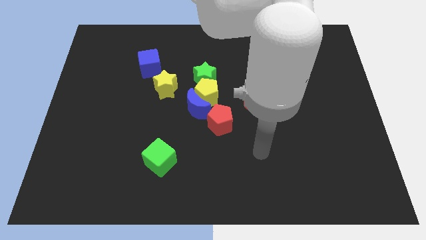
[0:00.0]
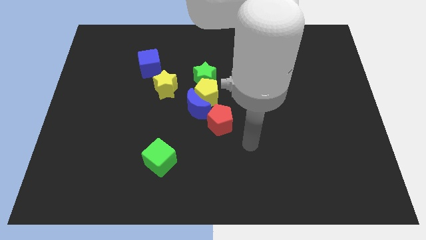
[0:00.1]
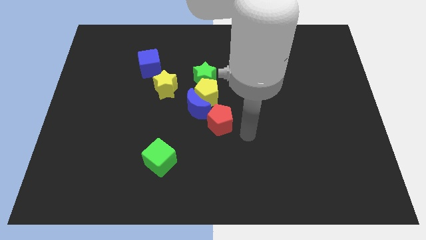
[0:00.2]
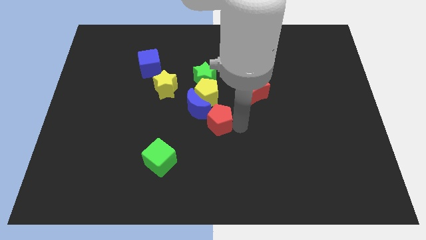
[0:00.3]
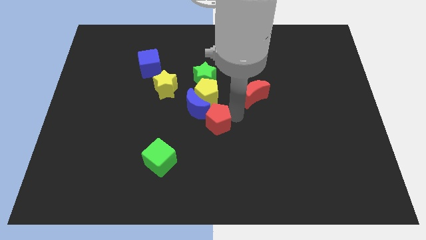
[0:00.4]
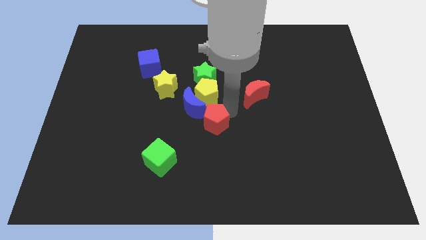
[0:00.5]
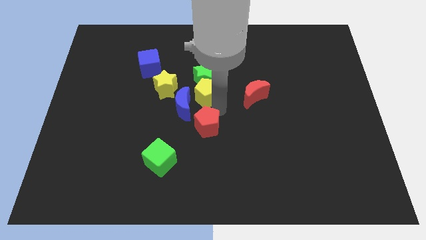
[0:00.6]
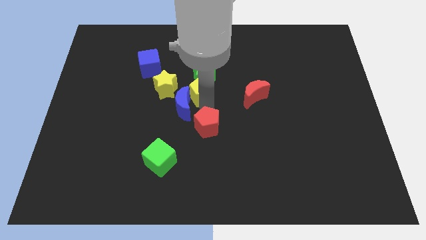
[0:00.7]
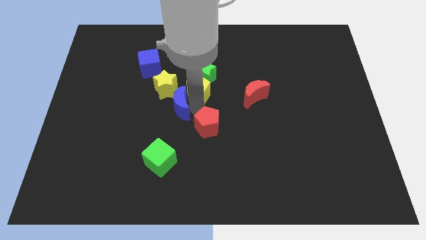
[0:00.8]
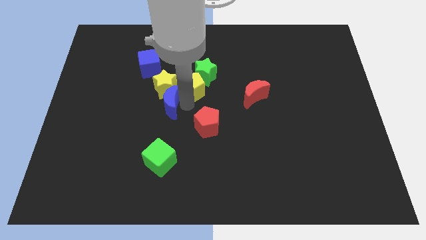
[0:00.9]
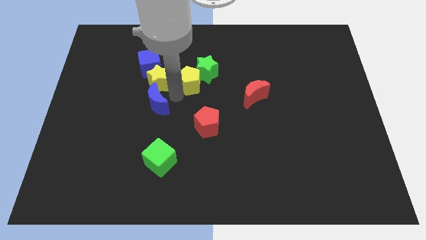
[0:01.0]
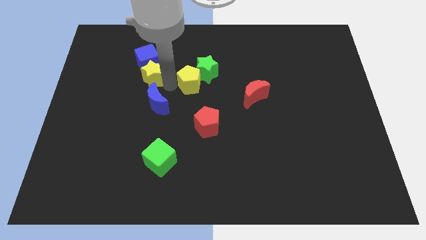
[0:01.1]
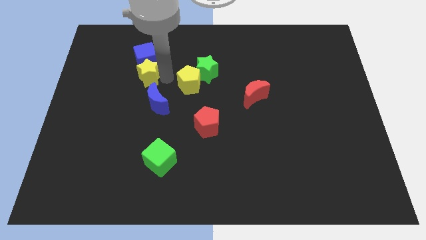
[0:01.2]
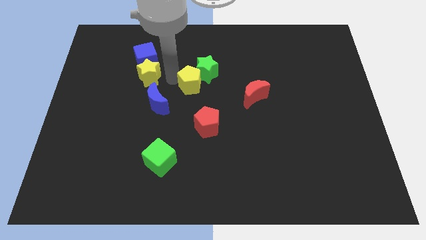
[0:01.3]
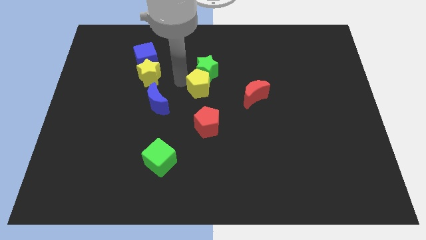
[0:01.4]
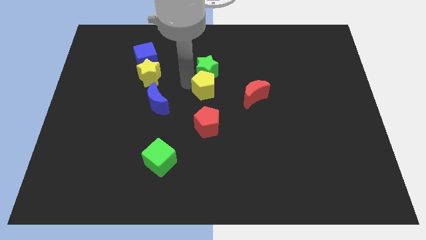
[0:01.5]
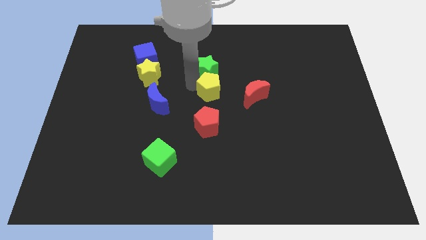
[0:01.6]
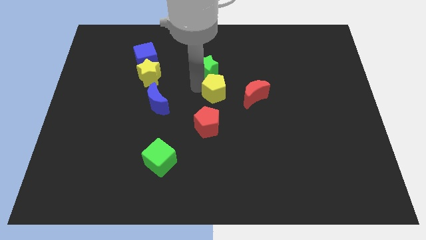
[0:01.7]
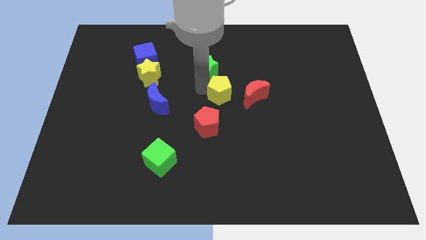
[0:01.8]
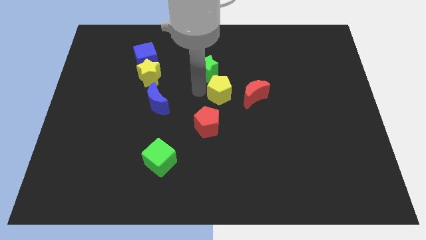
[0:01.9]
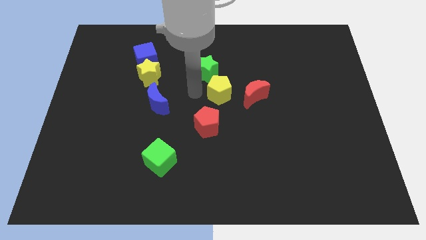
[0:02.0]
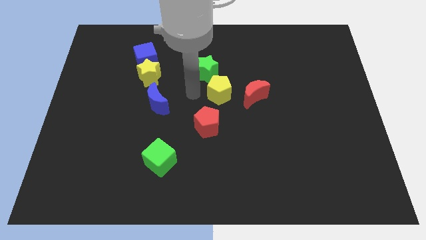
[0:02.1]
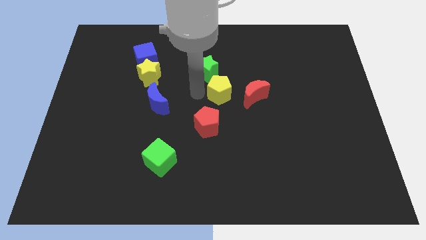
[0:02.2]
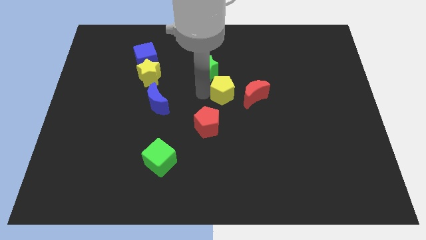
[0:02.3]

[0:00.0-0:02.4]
move the yellow pentagon away from the group of blocks

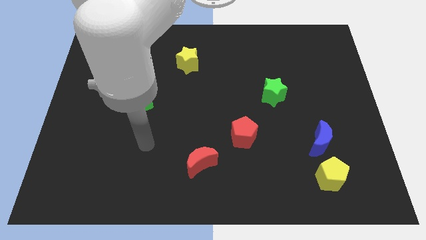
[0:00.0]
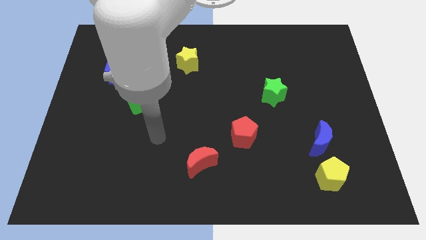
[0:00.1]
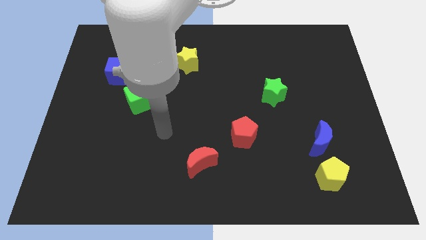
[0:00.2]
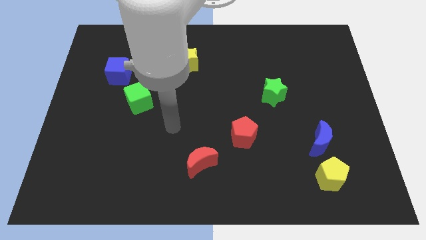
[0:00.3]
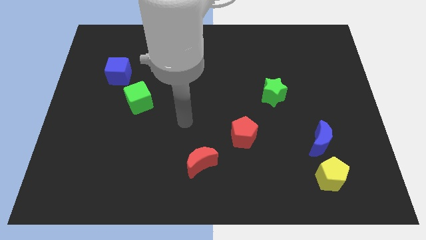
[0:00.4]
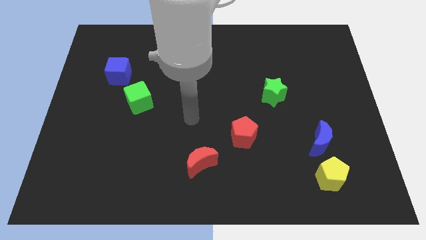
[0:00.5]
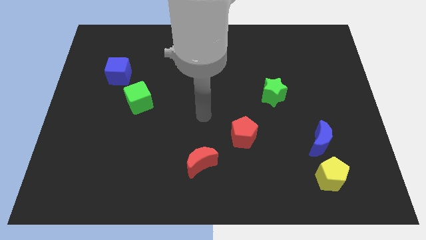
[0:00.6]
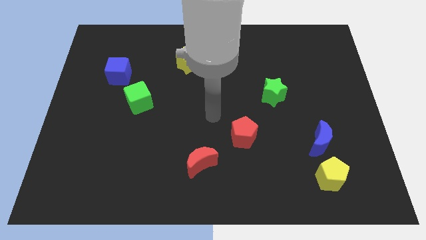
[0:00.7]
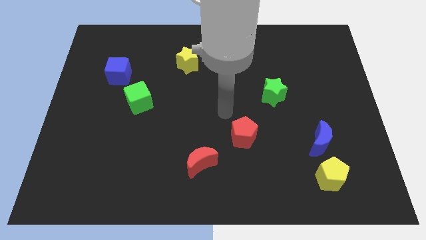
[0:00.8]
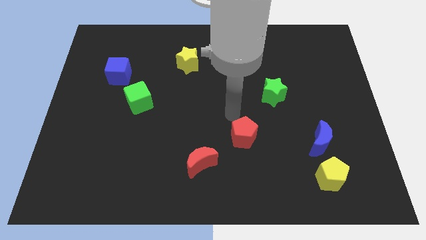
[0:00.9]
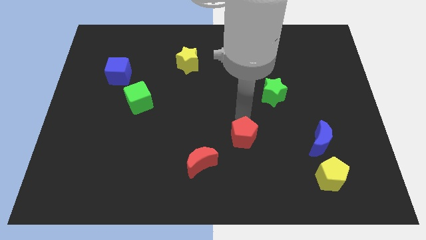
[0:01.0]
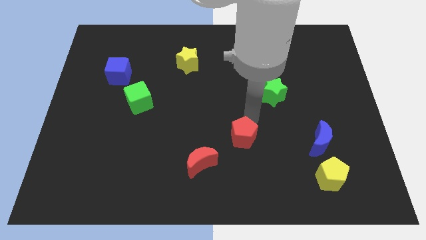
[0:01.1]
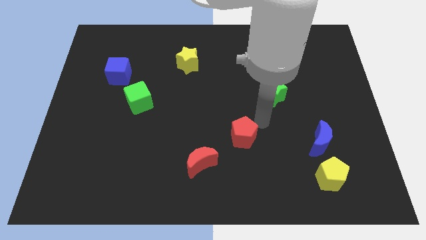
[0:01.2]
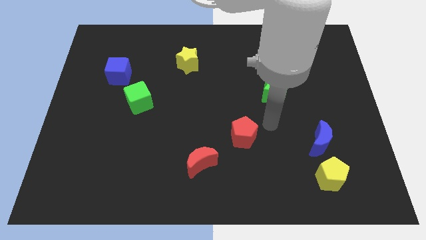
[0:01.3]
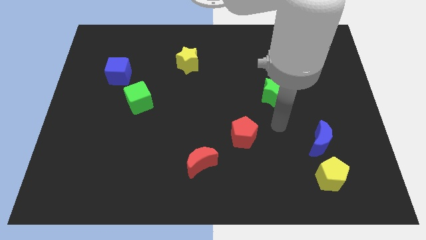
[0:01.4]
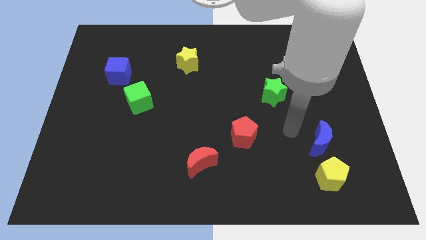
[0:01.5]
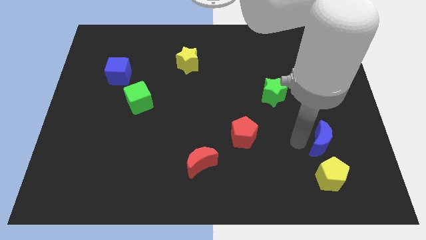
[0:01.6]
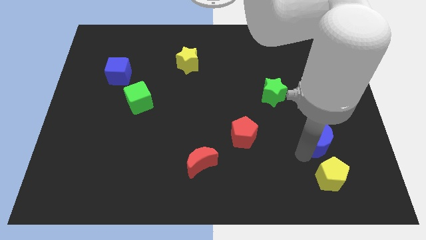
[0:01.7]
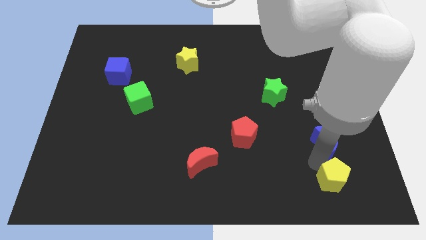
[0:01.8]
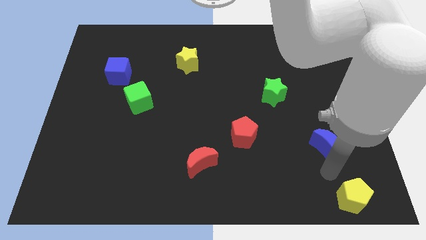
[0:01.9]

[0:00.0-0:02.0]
separate the blue moon from the yellow pentagon

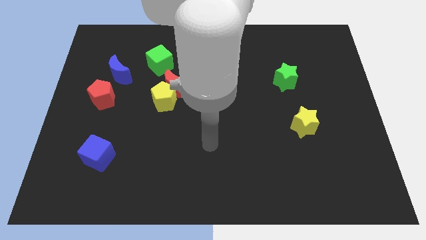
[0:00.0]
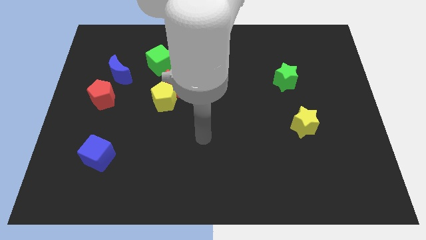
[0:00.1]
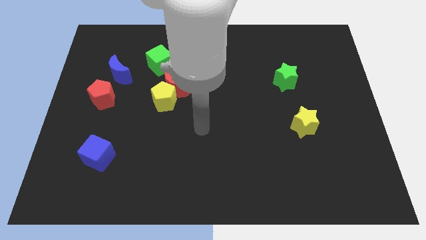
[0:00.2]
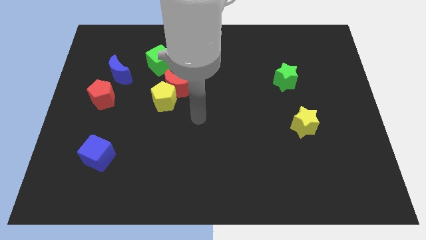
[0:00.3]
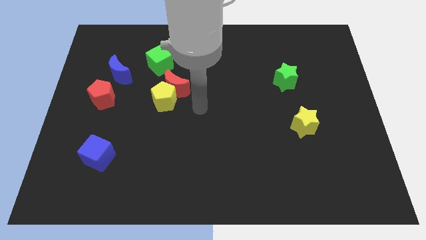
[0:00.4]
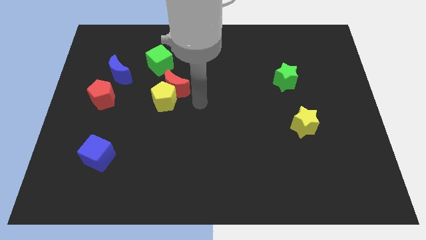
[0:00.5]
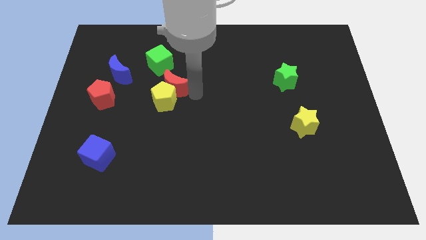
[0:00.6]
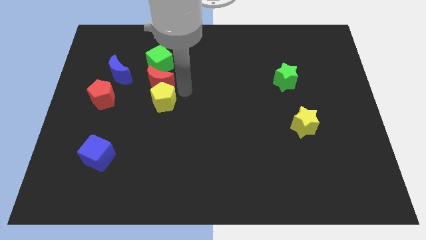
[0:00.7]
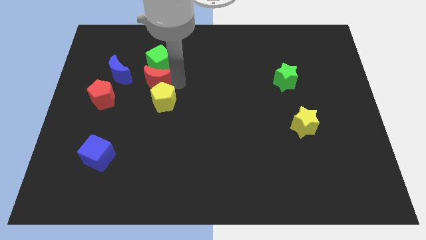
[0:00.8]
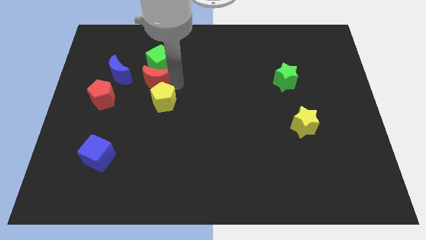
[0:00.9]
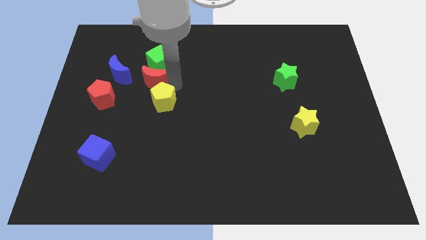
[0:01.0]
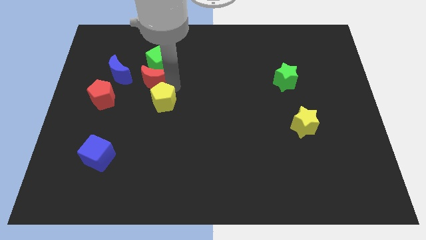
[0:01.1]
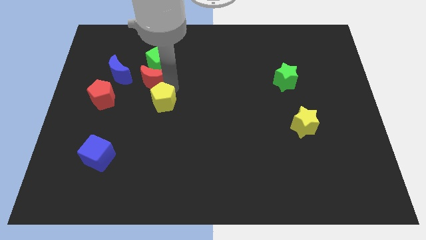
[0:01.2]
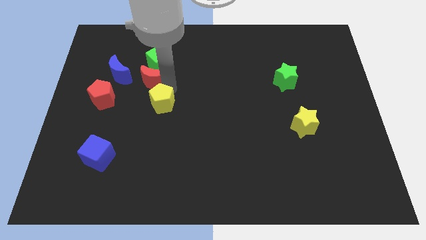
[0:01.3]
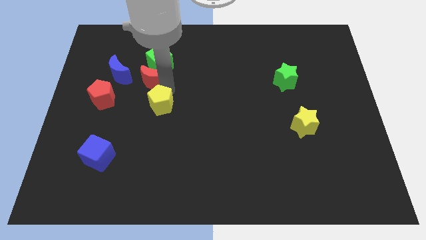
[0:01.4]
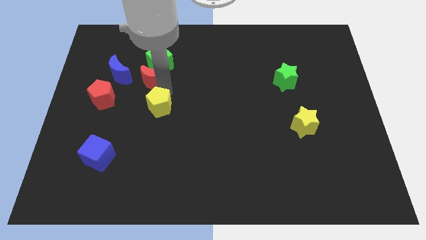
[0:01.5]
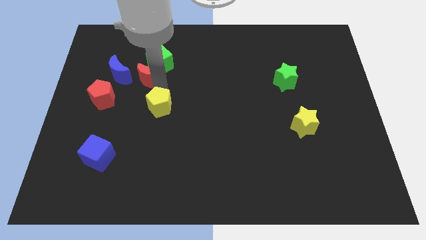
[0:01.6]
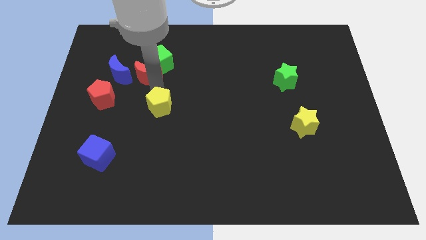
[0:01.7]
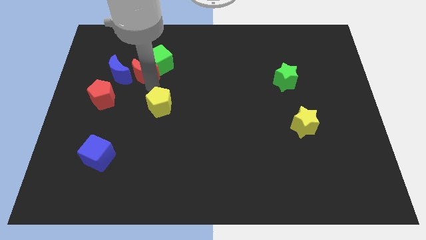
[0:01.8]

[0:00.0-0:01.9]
separate the yellow pentagon from the red moon

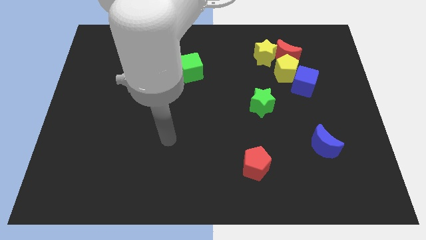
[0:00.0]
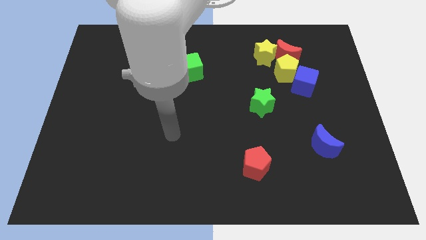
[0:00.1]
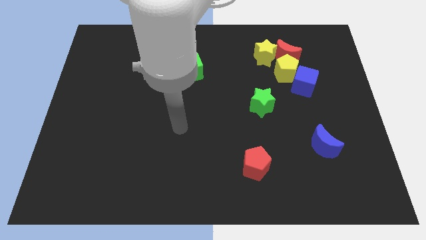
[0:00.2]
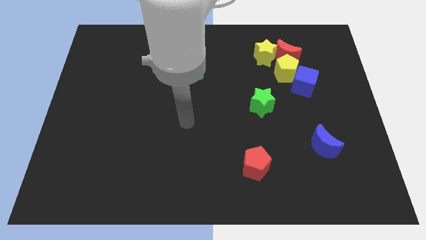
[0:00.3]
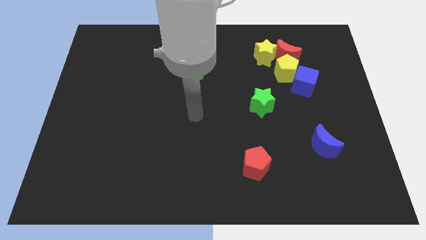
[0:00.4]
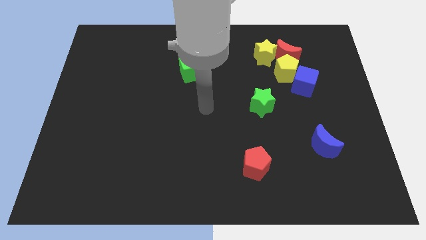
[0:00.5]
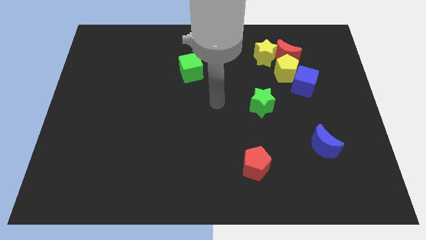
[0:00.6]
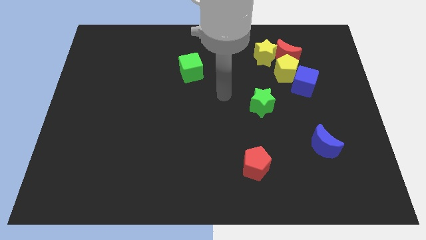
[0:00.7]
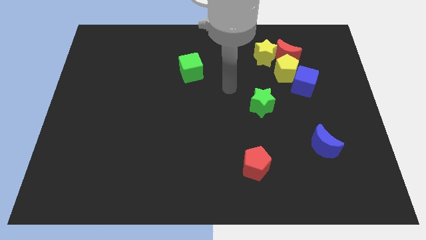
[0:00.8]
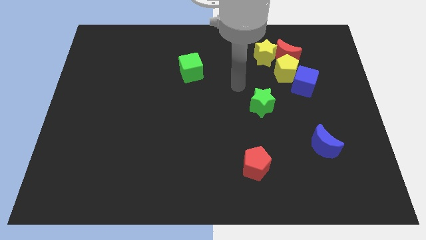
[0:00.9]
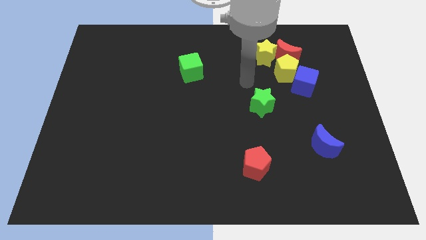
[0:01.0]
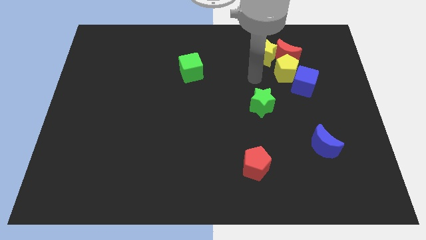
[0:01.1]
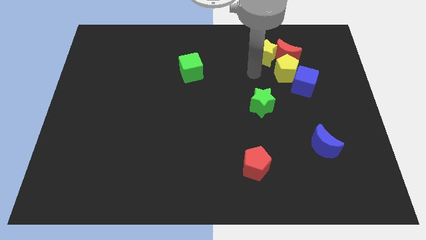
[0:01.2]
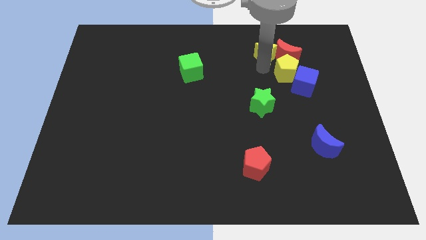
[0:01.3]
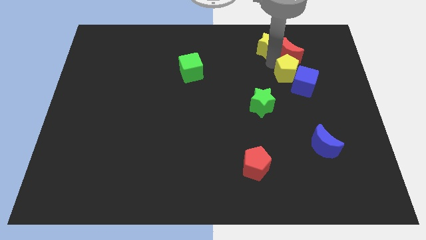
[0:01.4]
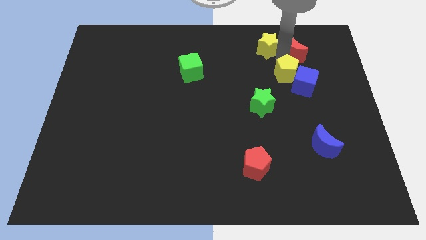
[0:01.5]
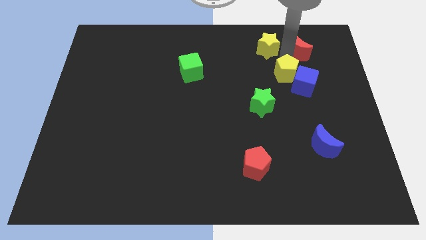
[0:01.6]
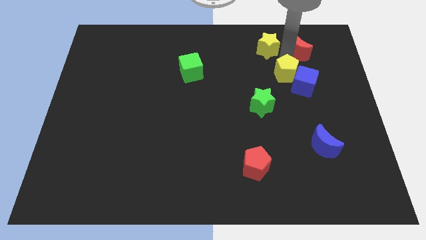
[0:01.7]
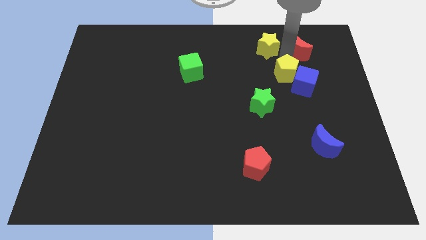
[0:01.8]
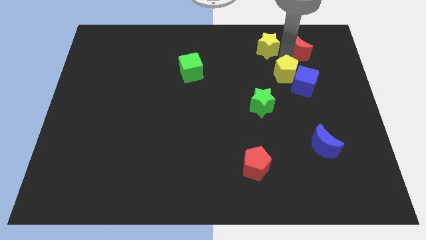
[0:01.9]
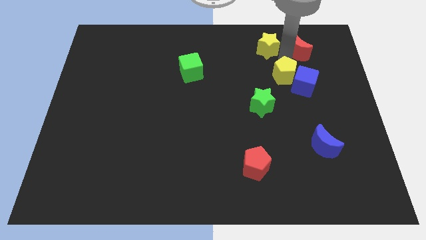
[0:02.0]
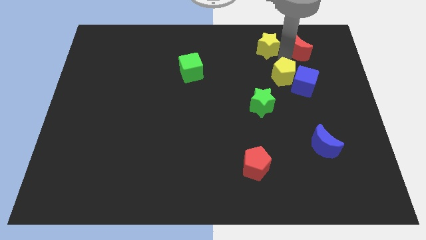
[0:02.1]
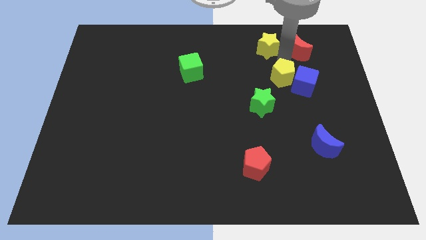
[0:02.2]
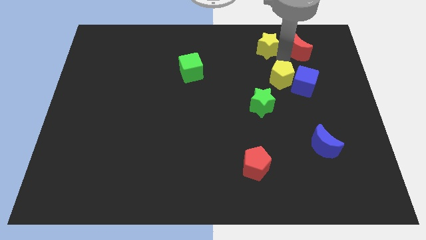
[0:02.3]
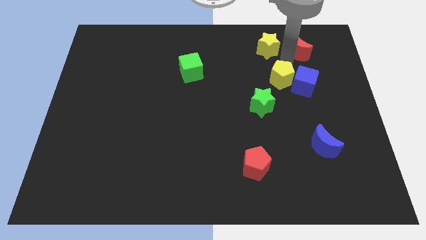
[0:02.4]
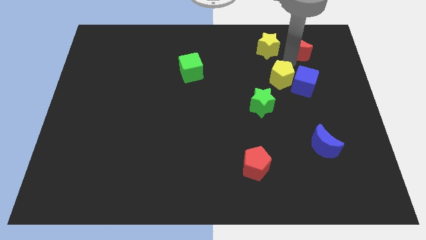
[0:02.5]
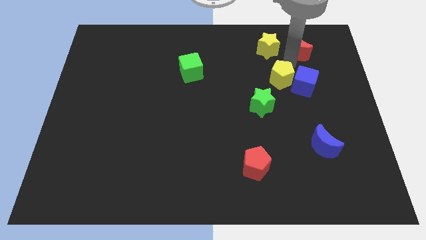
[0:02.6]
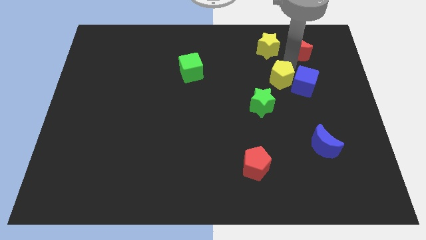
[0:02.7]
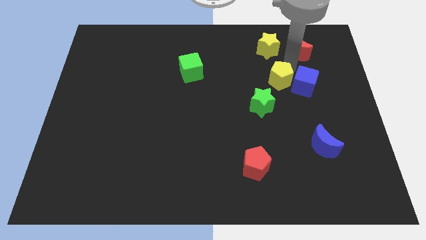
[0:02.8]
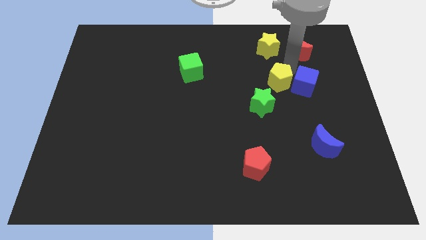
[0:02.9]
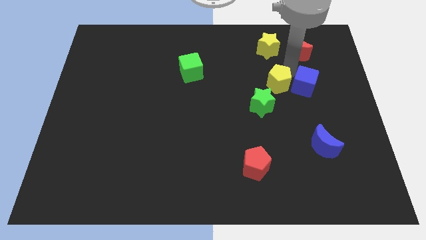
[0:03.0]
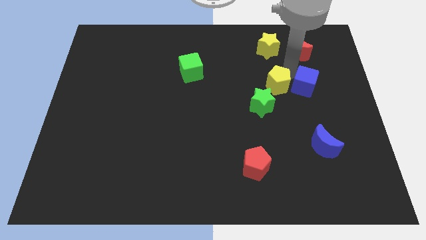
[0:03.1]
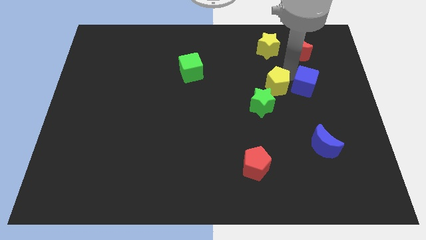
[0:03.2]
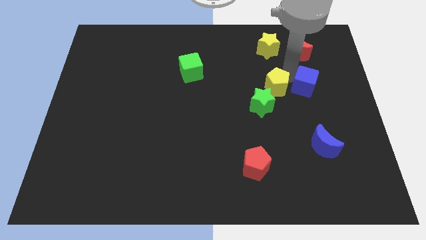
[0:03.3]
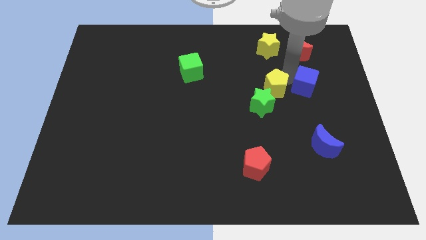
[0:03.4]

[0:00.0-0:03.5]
pull the yellow pentagon apart from the red moon, blue cube, and yellow star
